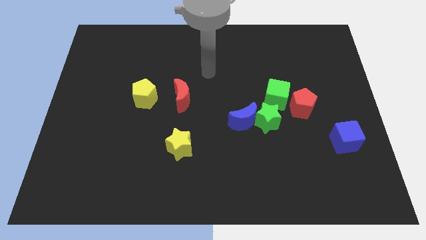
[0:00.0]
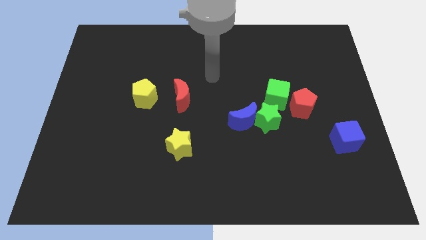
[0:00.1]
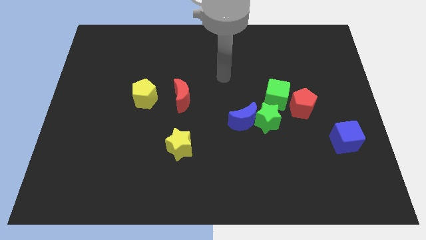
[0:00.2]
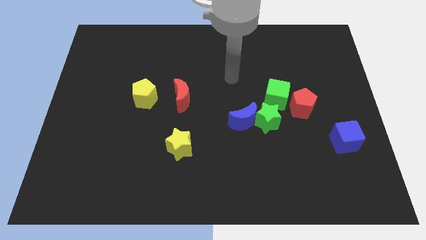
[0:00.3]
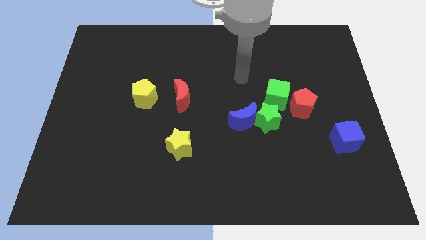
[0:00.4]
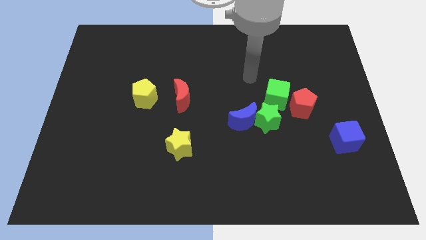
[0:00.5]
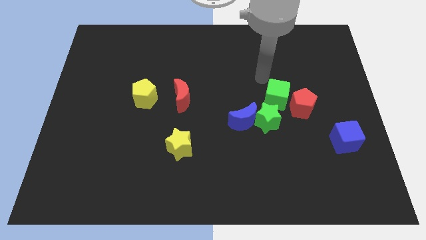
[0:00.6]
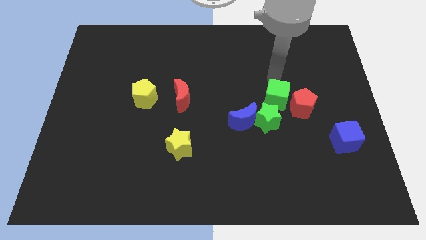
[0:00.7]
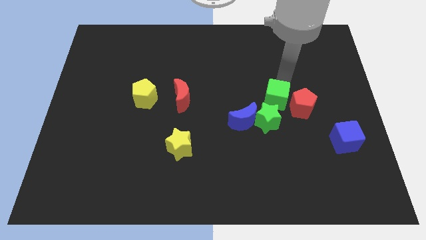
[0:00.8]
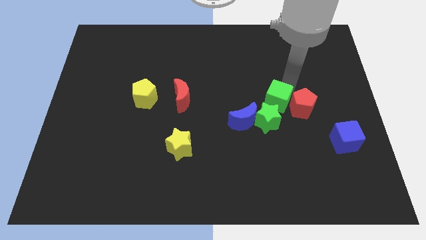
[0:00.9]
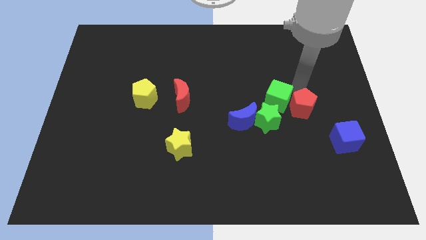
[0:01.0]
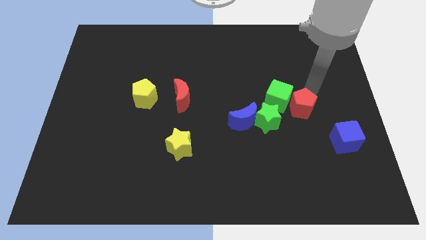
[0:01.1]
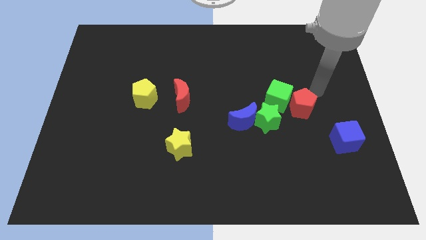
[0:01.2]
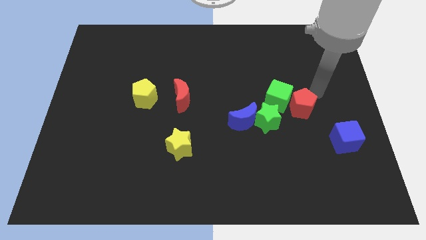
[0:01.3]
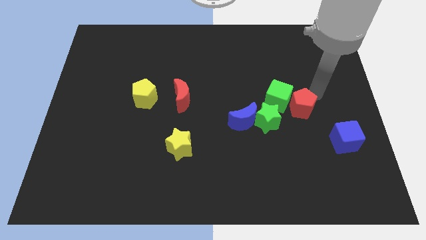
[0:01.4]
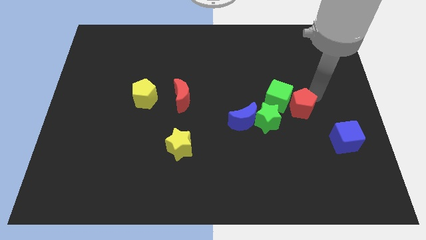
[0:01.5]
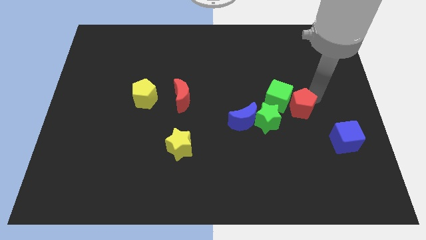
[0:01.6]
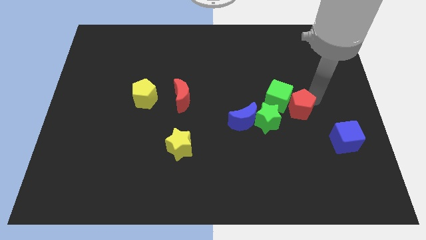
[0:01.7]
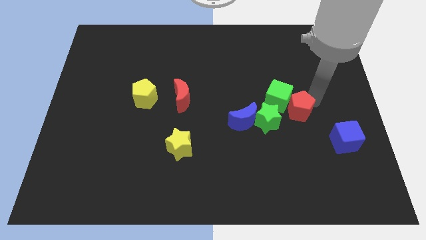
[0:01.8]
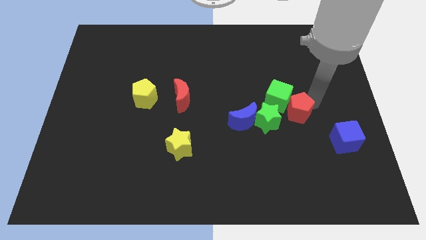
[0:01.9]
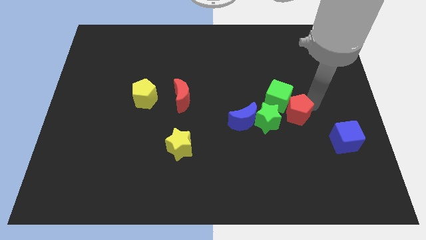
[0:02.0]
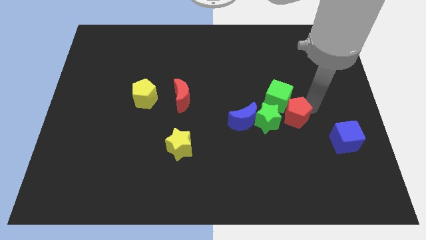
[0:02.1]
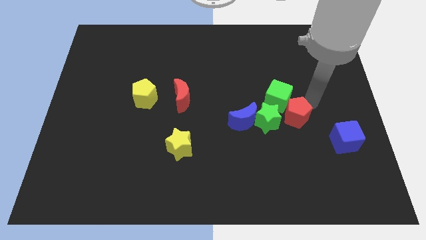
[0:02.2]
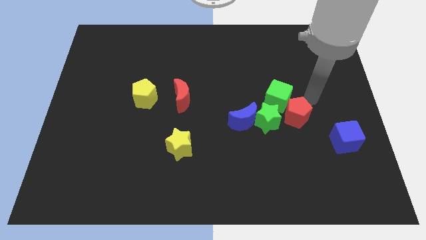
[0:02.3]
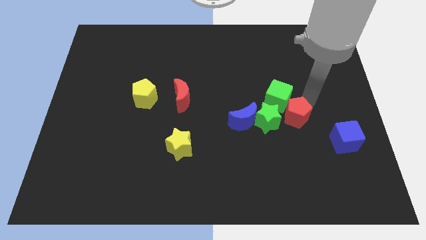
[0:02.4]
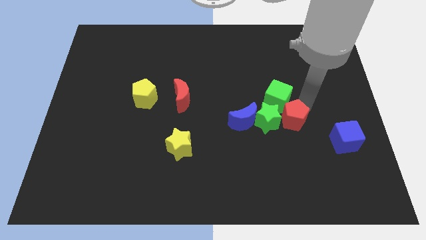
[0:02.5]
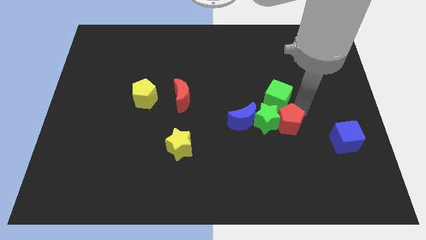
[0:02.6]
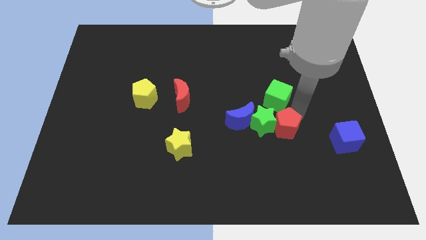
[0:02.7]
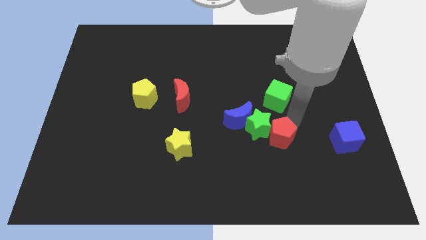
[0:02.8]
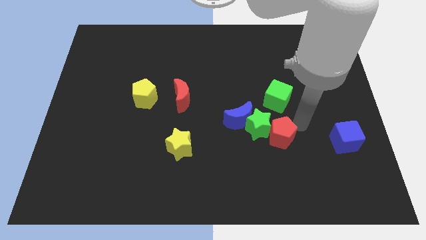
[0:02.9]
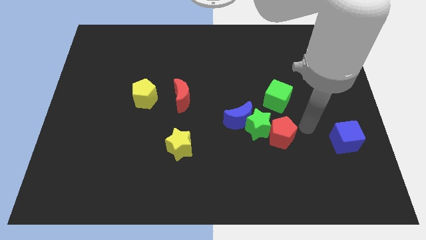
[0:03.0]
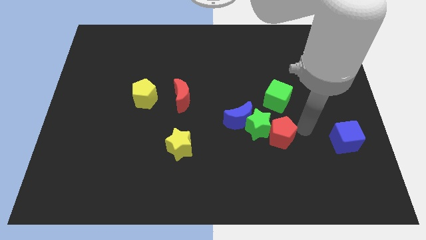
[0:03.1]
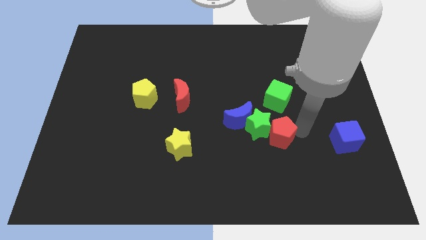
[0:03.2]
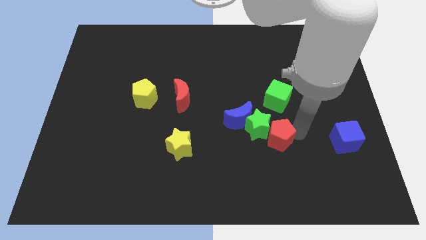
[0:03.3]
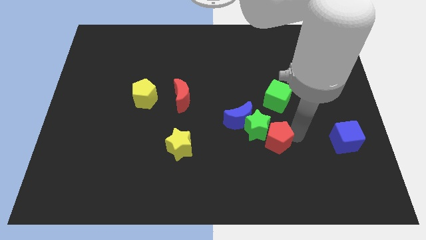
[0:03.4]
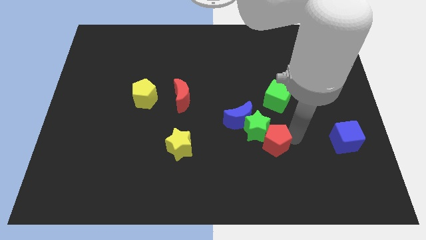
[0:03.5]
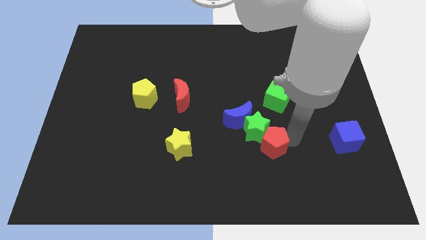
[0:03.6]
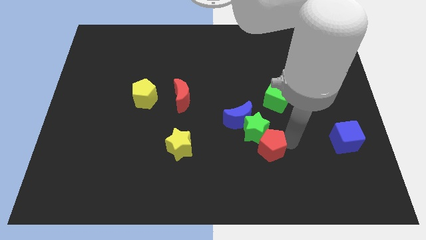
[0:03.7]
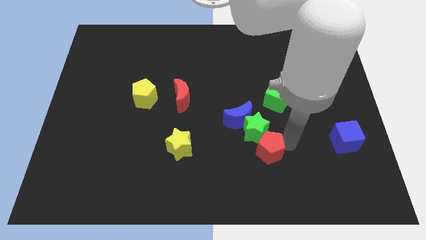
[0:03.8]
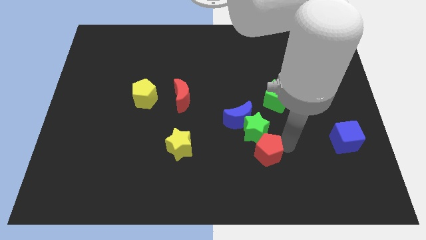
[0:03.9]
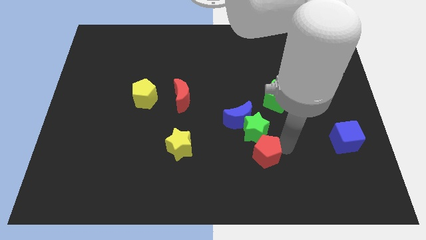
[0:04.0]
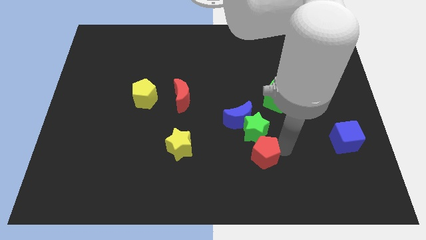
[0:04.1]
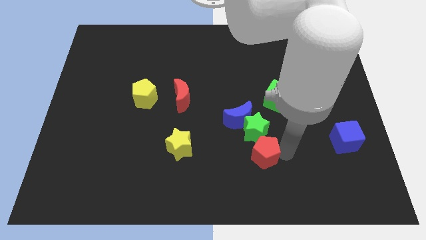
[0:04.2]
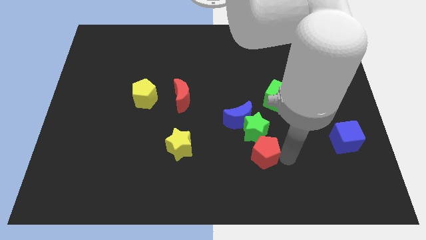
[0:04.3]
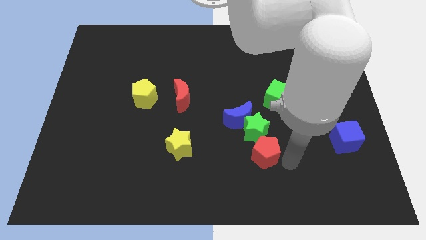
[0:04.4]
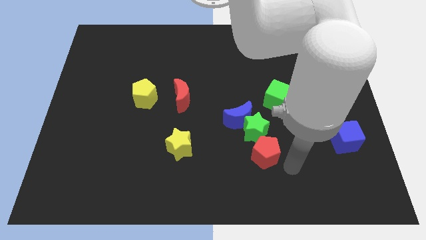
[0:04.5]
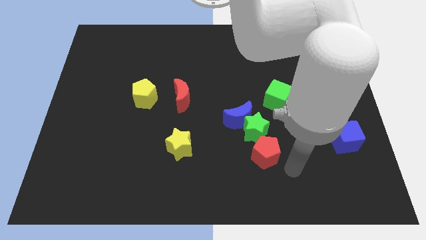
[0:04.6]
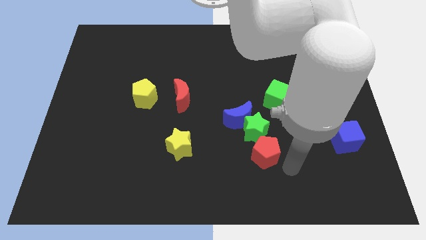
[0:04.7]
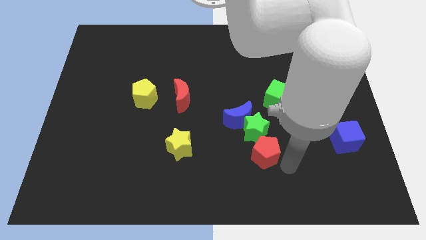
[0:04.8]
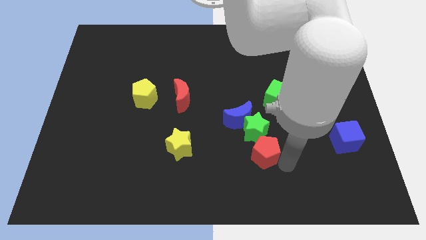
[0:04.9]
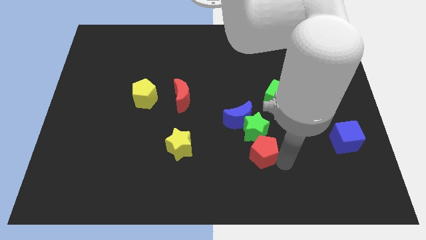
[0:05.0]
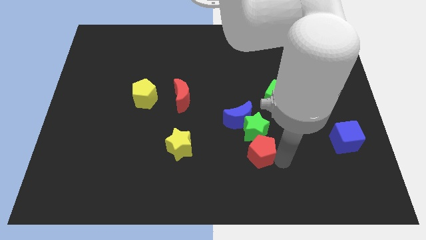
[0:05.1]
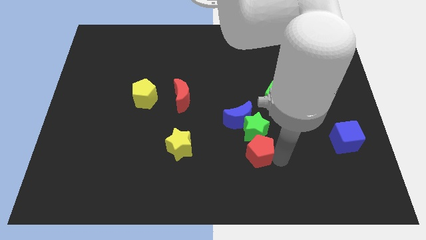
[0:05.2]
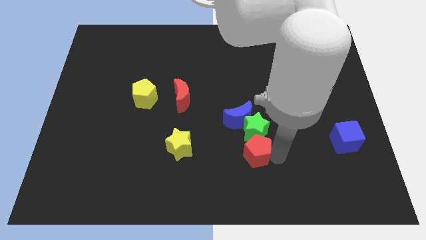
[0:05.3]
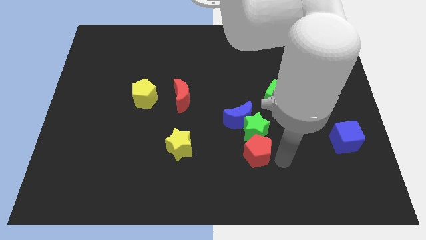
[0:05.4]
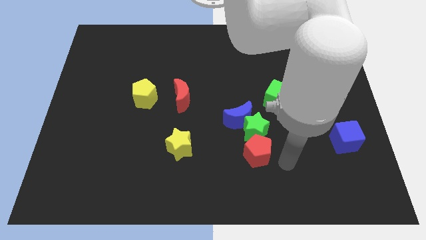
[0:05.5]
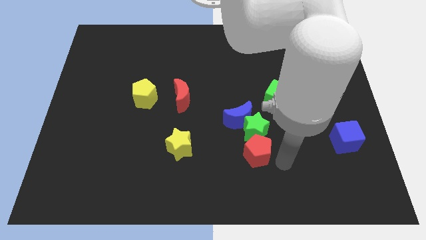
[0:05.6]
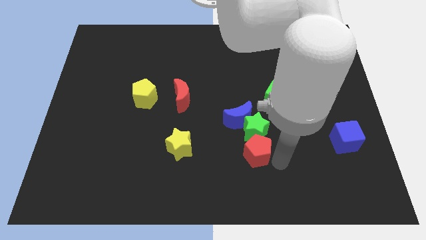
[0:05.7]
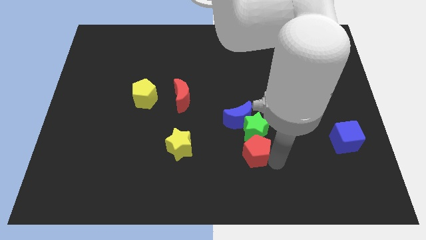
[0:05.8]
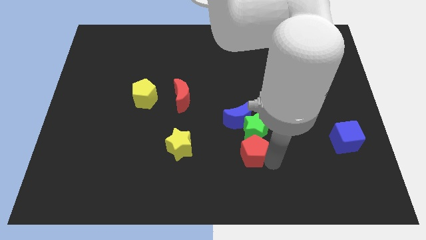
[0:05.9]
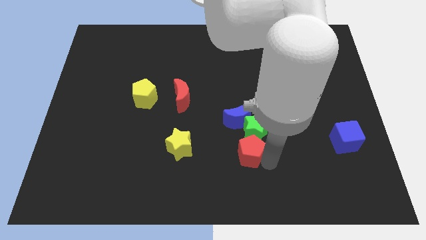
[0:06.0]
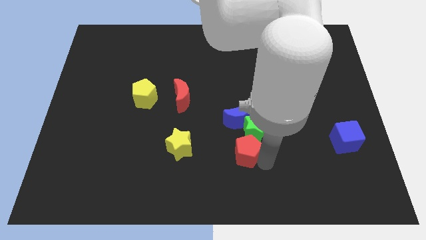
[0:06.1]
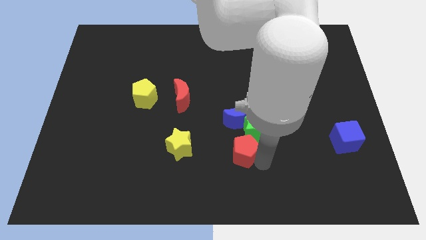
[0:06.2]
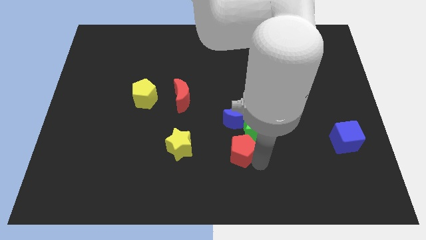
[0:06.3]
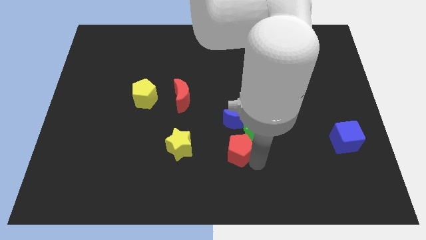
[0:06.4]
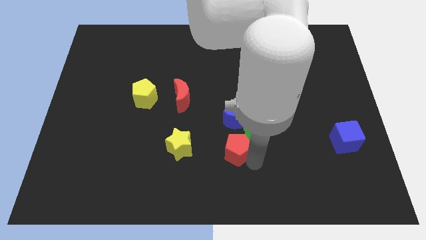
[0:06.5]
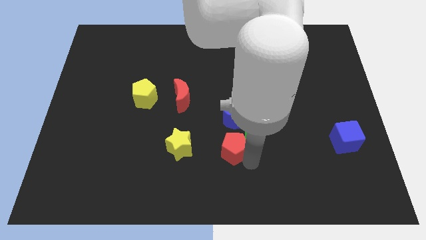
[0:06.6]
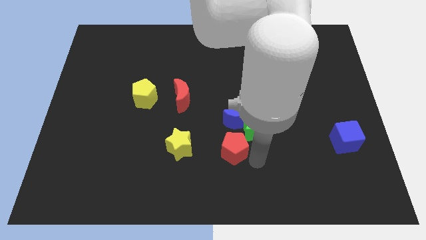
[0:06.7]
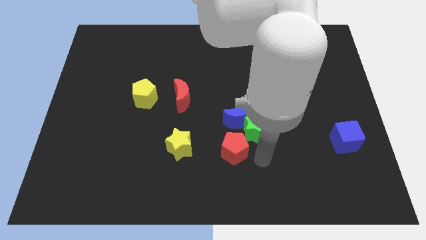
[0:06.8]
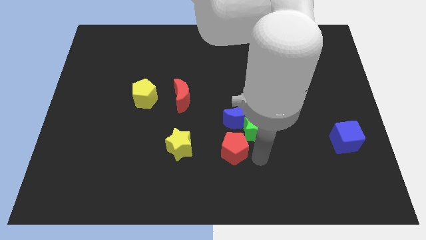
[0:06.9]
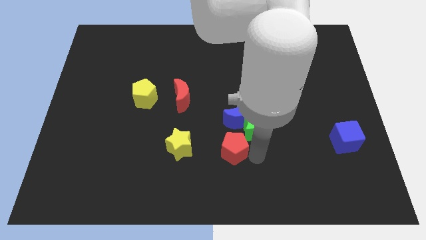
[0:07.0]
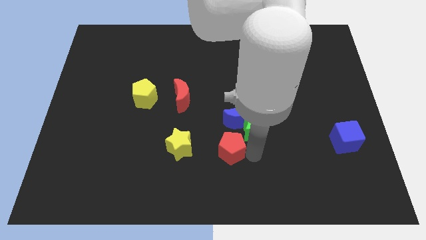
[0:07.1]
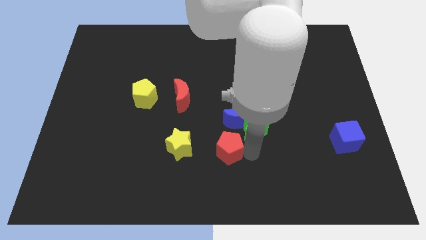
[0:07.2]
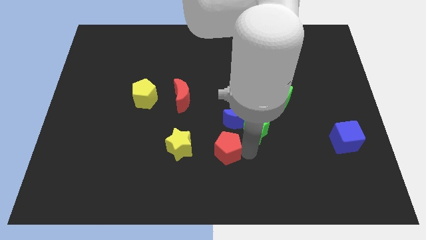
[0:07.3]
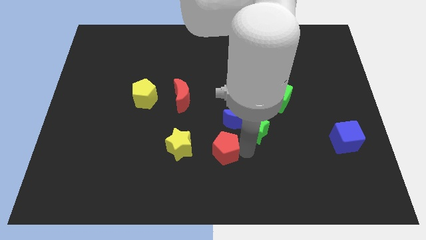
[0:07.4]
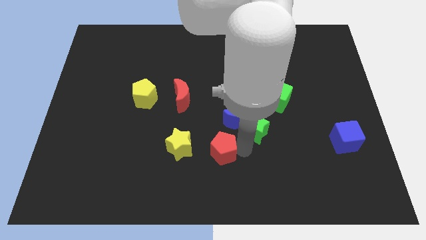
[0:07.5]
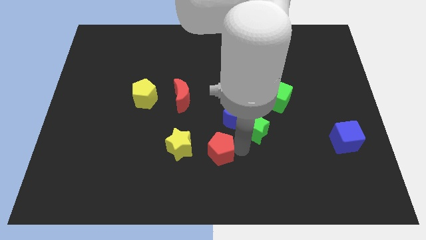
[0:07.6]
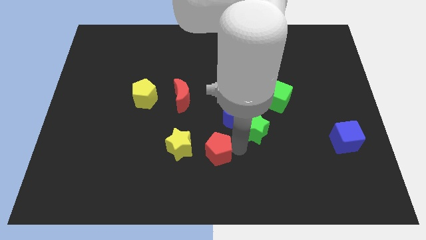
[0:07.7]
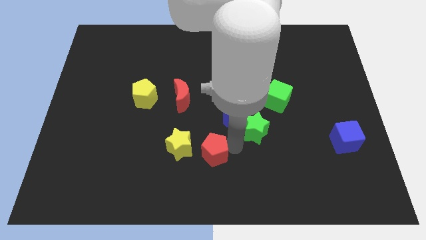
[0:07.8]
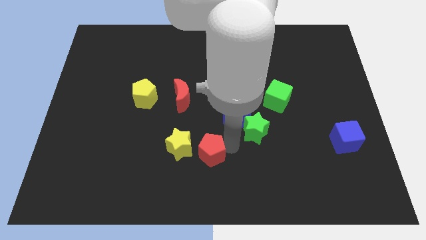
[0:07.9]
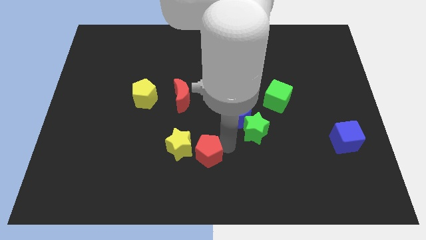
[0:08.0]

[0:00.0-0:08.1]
push the red pentagon to the yellow star
